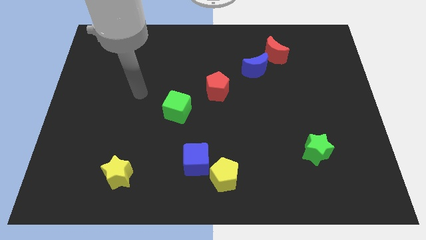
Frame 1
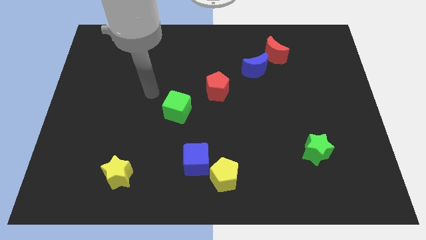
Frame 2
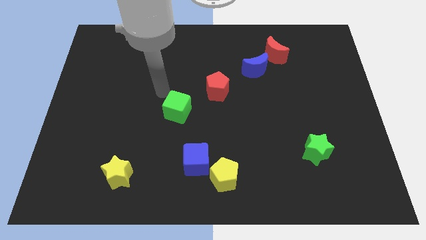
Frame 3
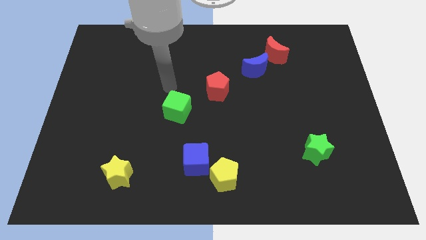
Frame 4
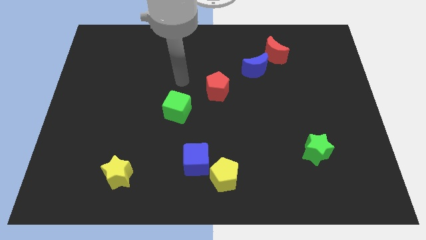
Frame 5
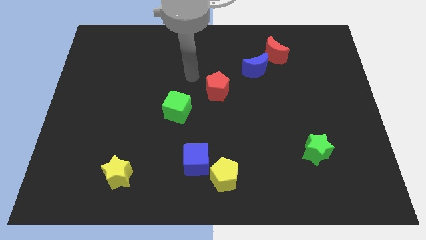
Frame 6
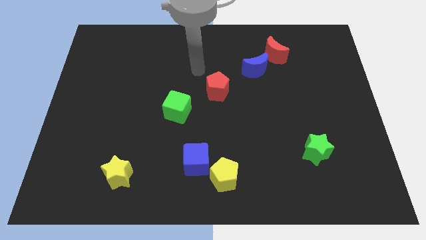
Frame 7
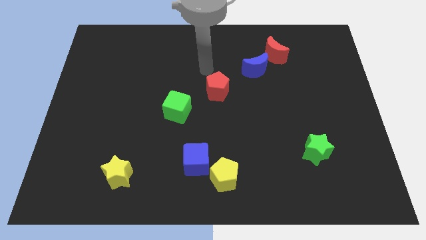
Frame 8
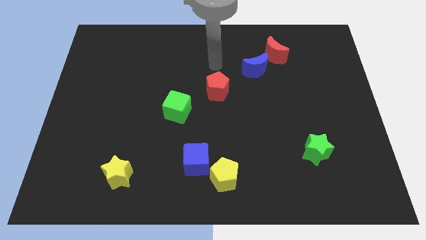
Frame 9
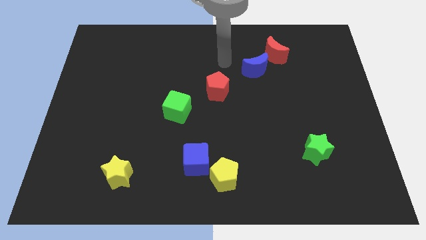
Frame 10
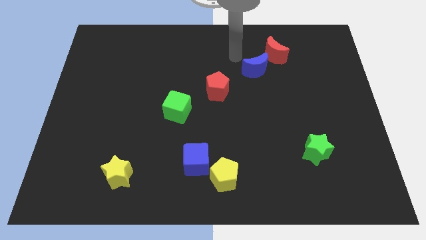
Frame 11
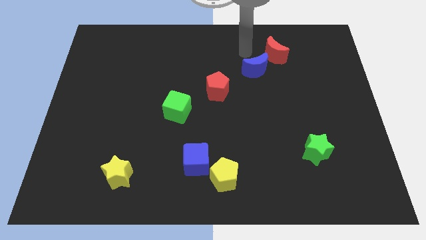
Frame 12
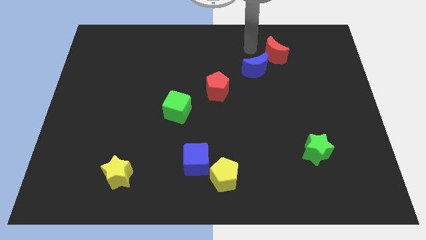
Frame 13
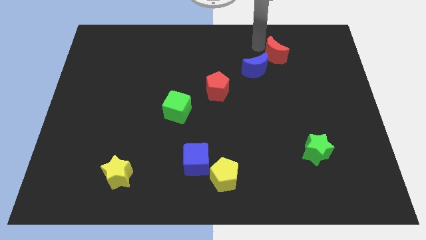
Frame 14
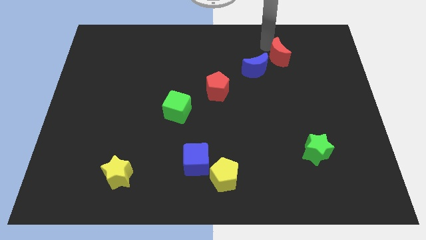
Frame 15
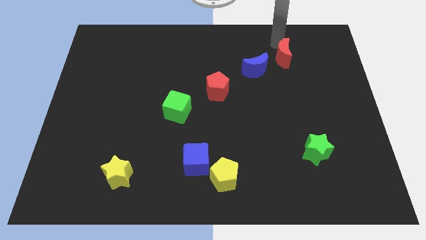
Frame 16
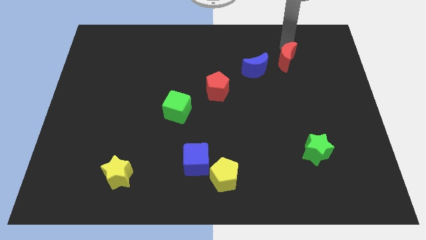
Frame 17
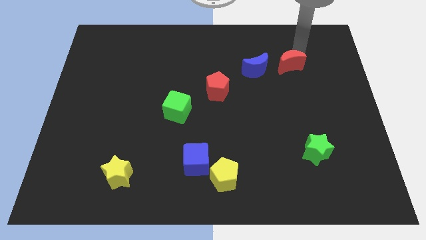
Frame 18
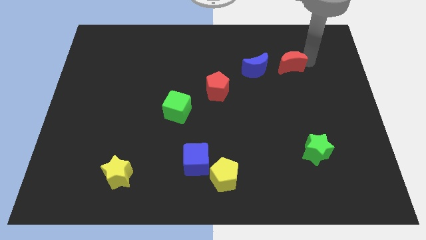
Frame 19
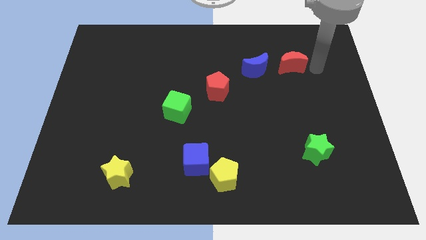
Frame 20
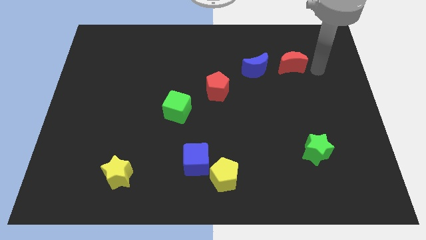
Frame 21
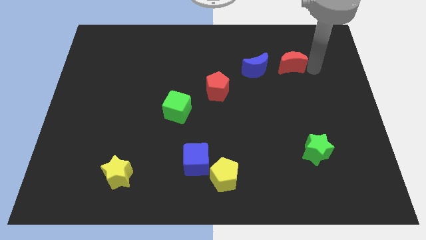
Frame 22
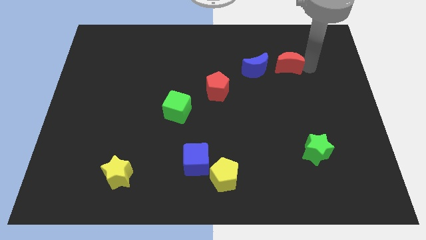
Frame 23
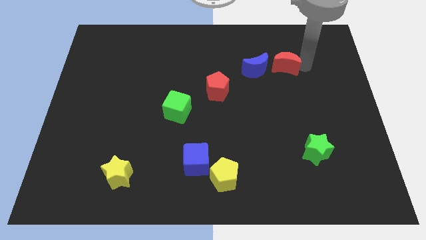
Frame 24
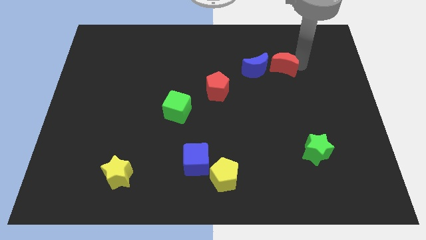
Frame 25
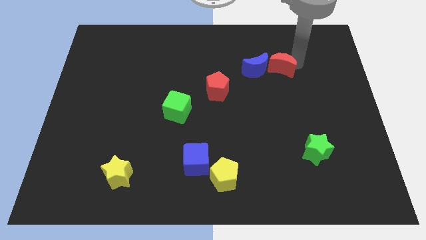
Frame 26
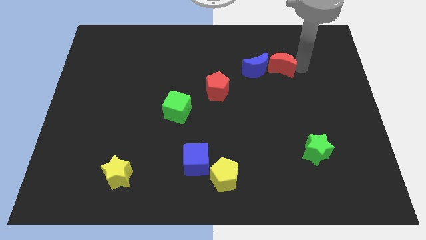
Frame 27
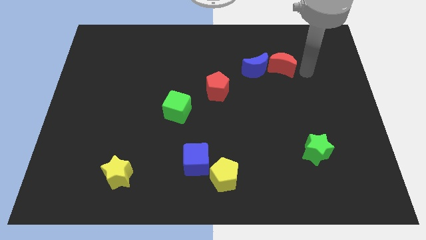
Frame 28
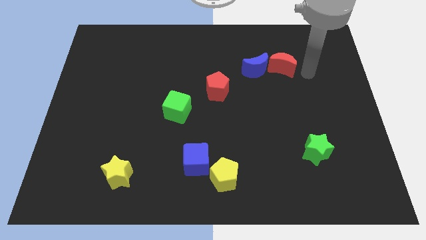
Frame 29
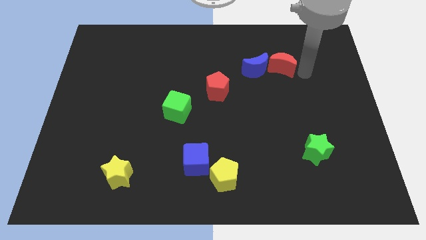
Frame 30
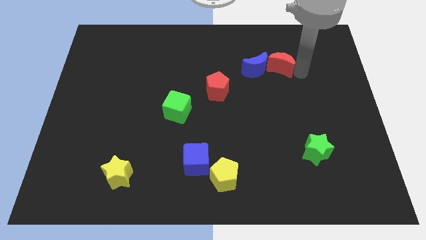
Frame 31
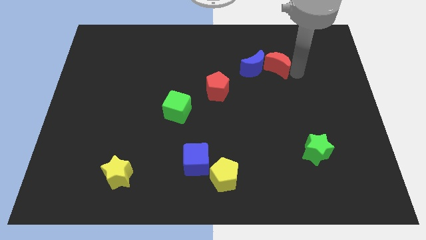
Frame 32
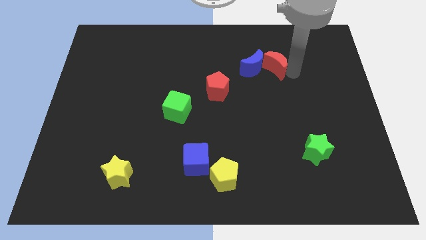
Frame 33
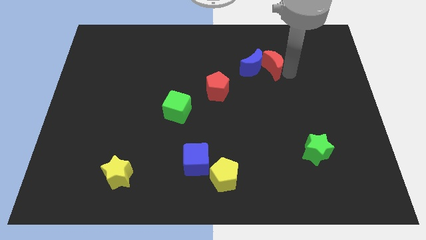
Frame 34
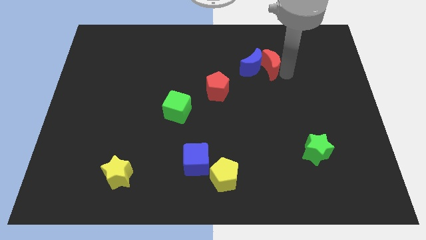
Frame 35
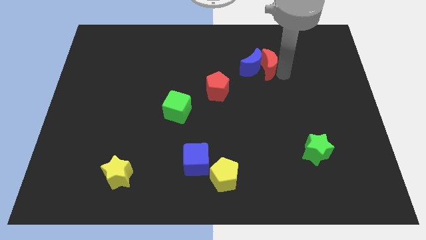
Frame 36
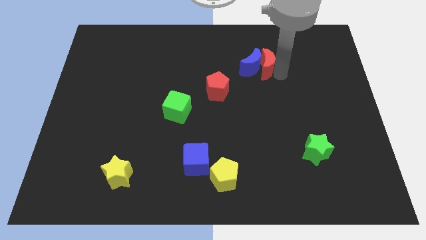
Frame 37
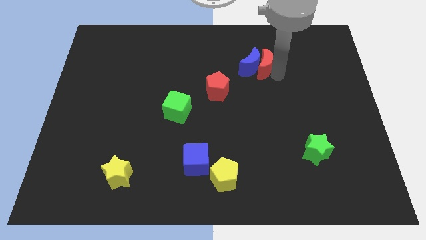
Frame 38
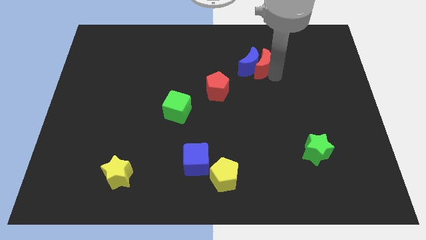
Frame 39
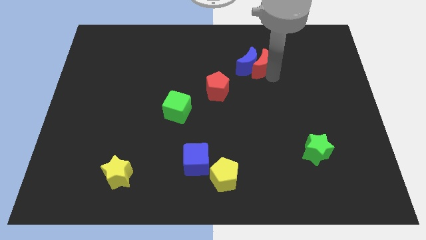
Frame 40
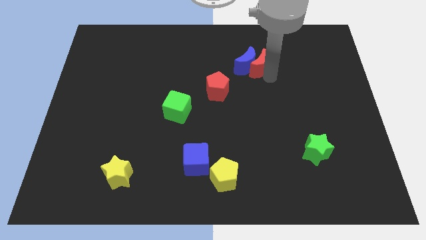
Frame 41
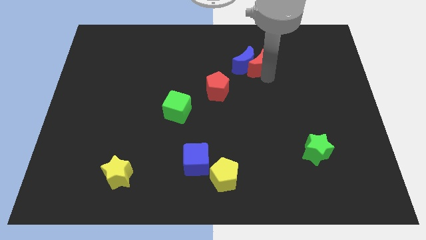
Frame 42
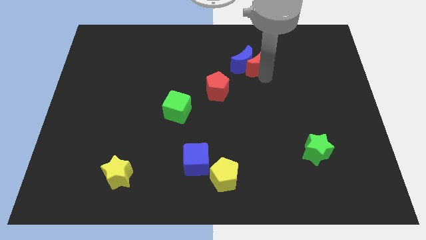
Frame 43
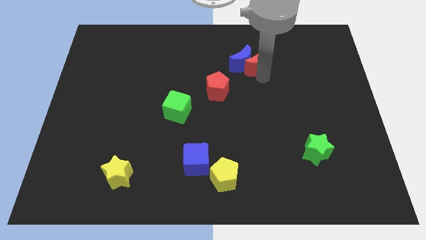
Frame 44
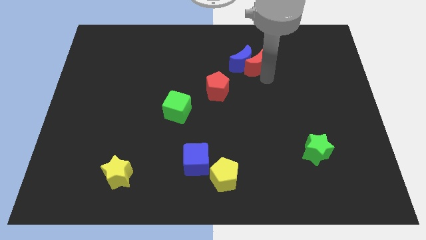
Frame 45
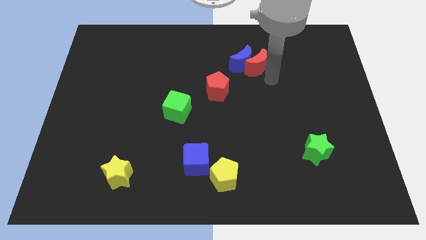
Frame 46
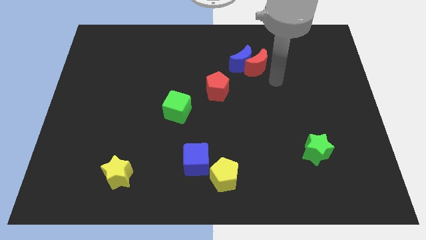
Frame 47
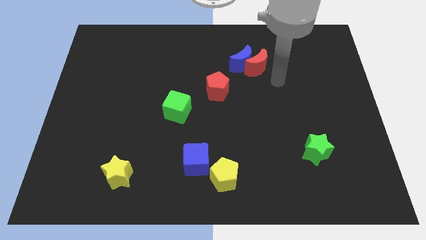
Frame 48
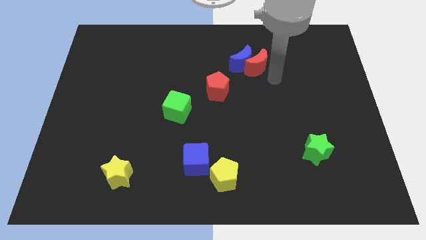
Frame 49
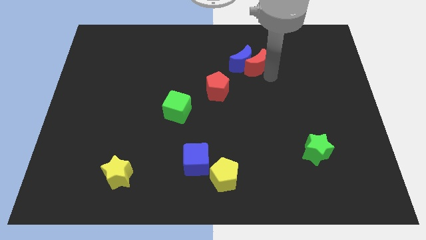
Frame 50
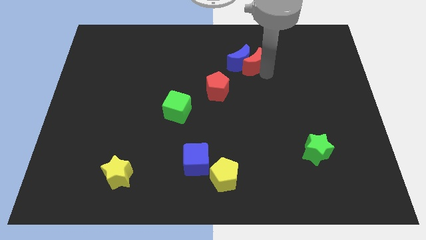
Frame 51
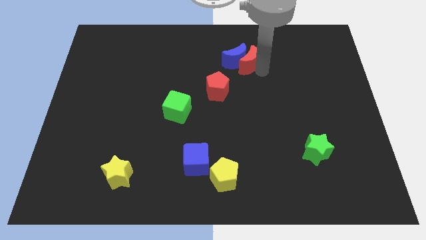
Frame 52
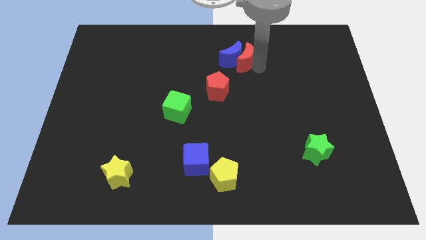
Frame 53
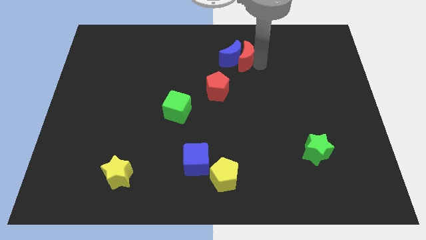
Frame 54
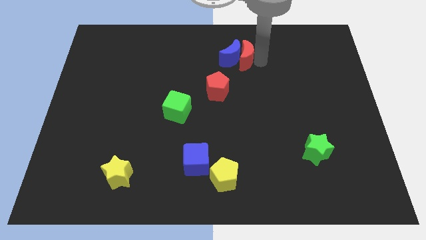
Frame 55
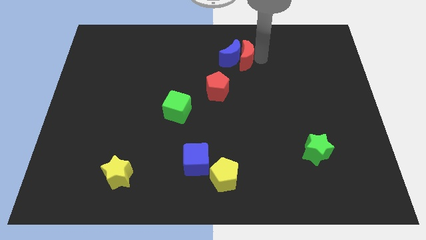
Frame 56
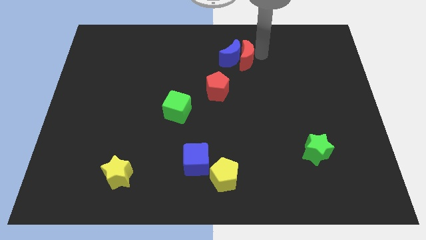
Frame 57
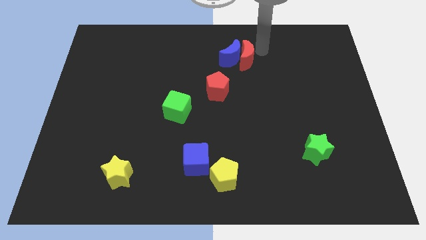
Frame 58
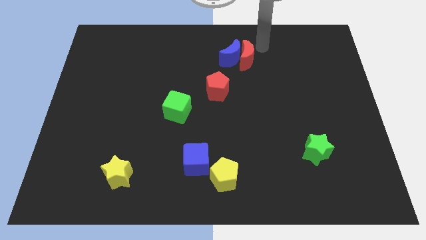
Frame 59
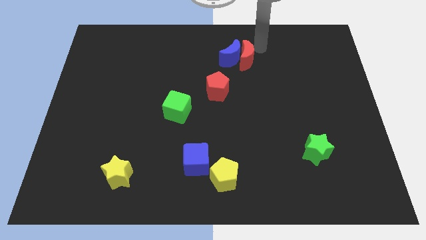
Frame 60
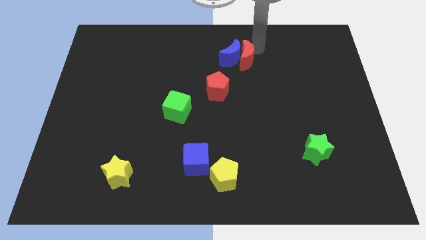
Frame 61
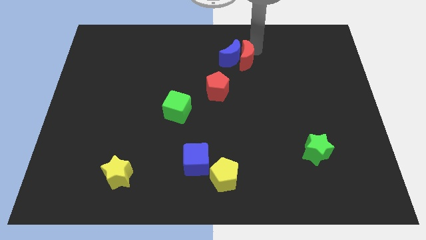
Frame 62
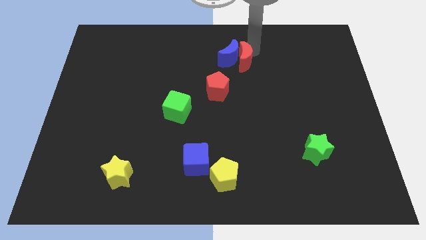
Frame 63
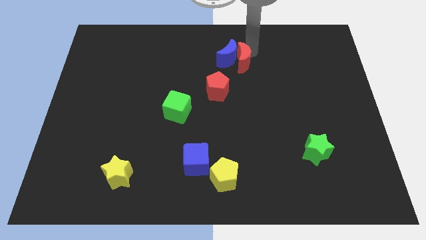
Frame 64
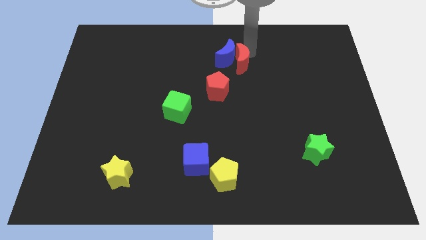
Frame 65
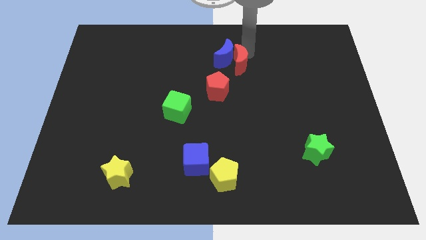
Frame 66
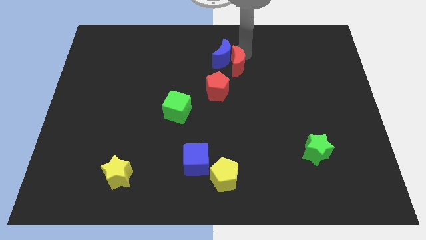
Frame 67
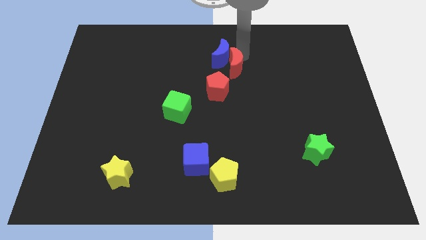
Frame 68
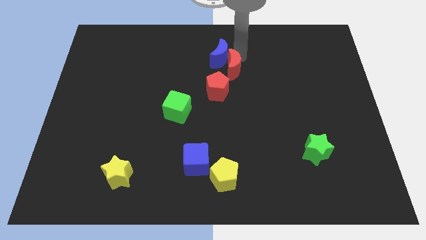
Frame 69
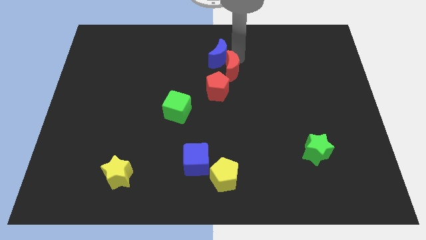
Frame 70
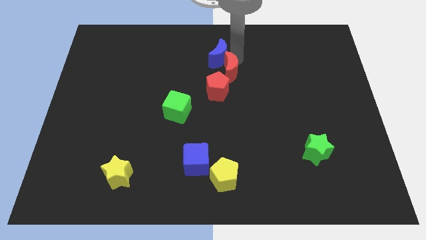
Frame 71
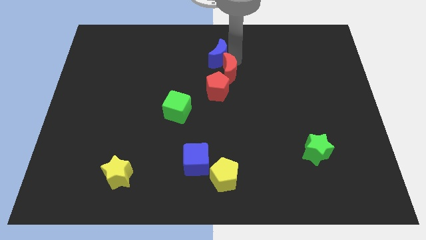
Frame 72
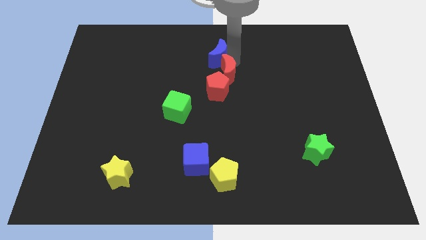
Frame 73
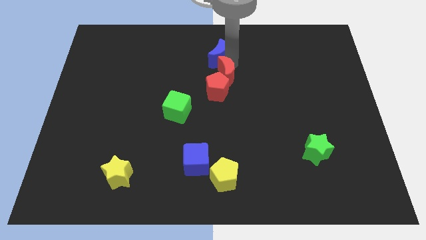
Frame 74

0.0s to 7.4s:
put the red moon next to the red pentagon
